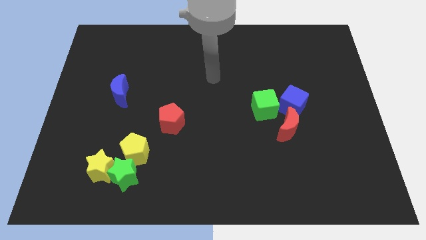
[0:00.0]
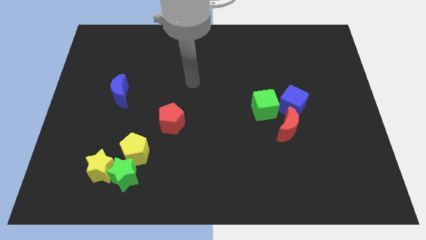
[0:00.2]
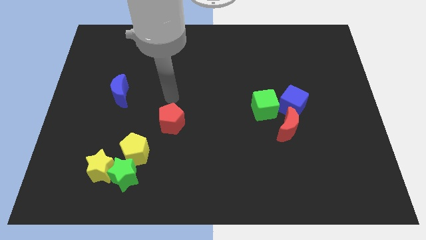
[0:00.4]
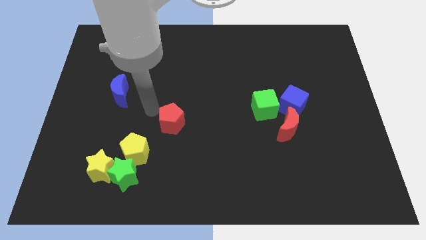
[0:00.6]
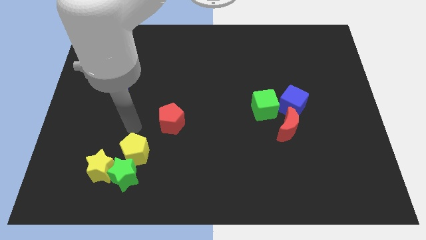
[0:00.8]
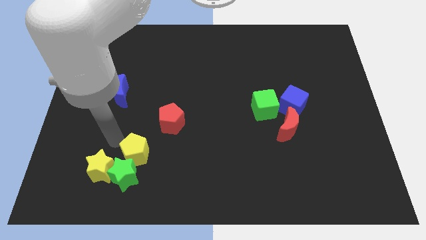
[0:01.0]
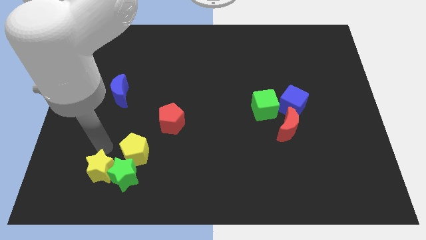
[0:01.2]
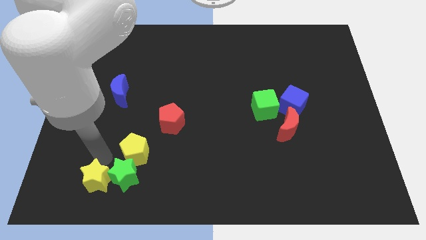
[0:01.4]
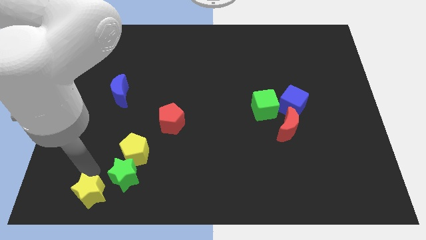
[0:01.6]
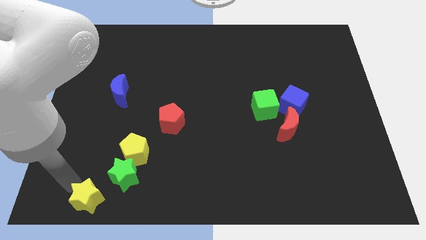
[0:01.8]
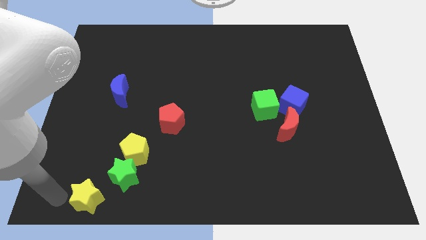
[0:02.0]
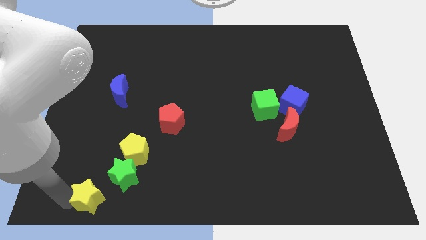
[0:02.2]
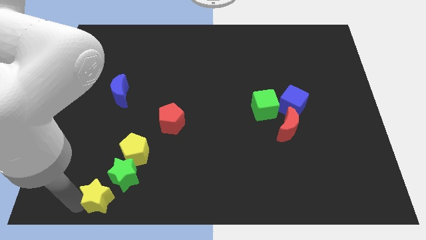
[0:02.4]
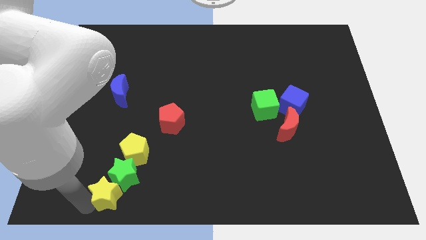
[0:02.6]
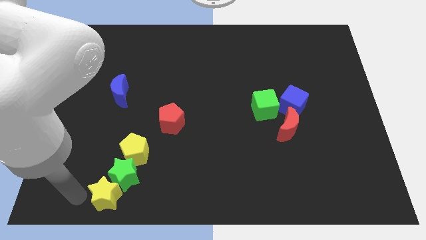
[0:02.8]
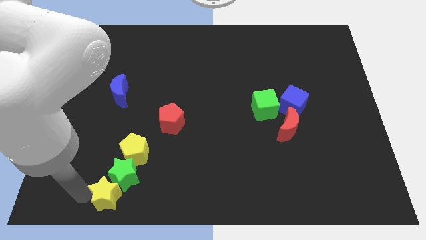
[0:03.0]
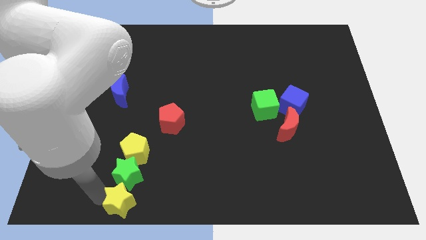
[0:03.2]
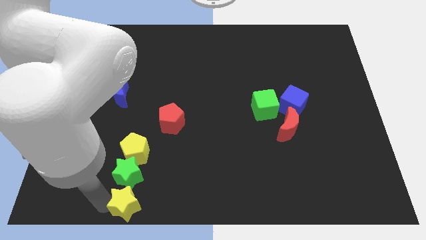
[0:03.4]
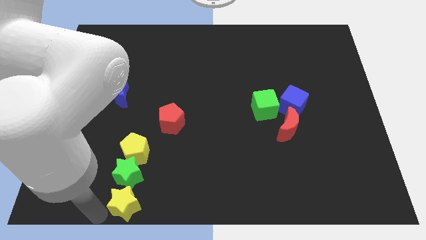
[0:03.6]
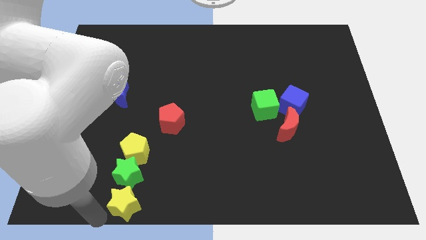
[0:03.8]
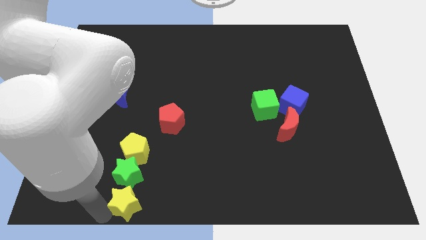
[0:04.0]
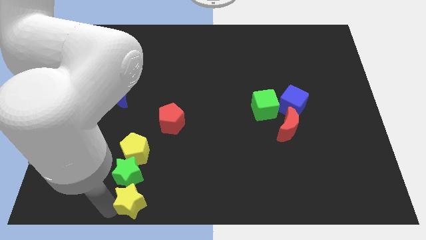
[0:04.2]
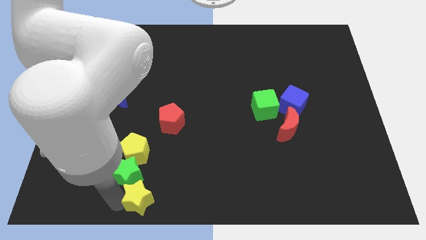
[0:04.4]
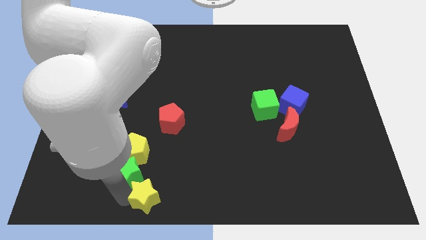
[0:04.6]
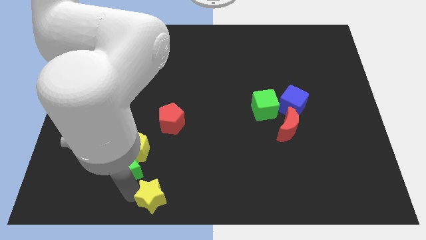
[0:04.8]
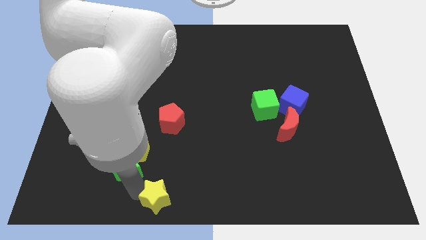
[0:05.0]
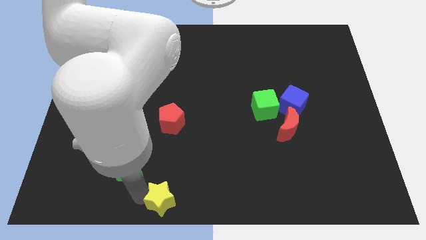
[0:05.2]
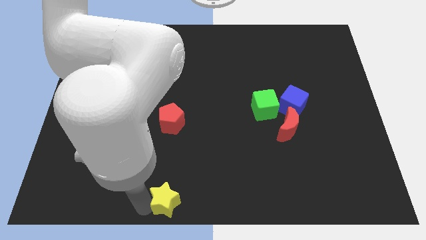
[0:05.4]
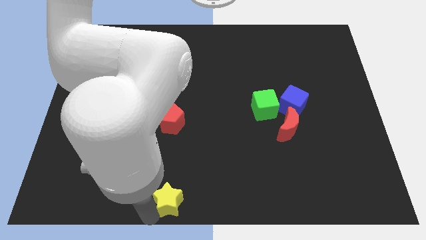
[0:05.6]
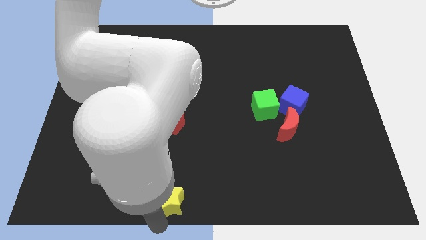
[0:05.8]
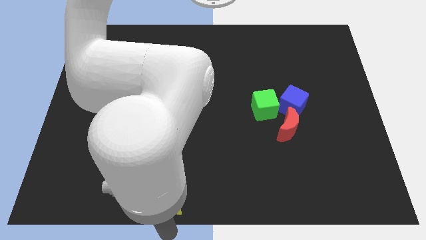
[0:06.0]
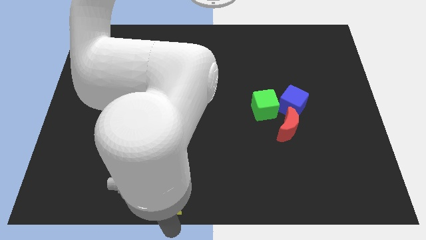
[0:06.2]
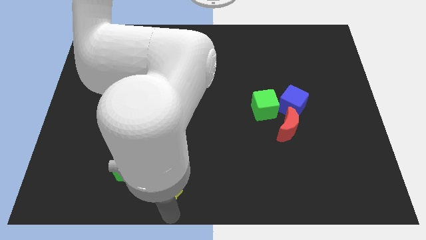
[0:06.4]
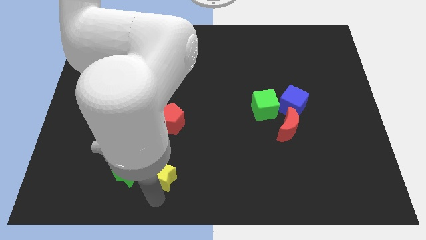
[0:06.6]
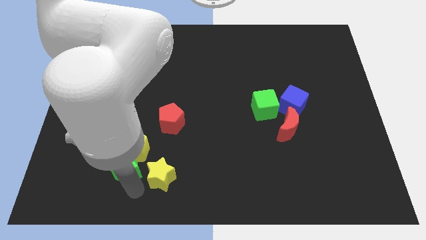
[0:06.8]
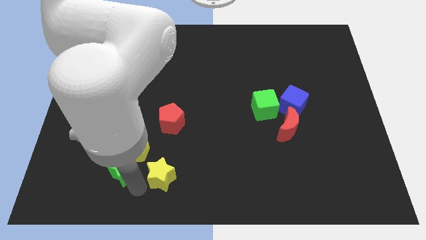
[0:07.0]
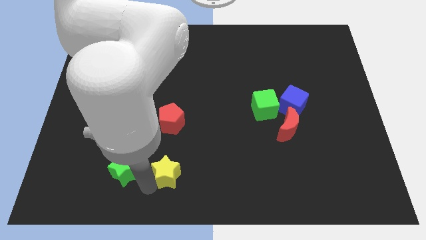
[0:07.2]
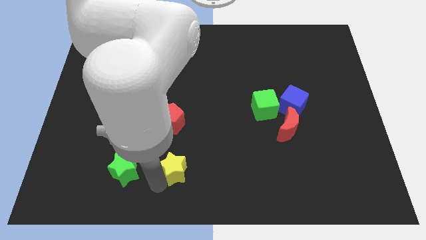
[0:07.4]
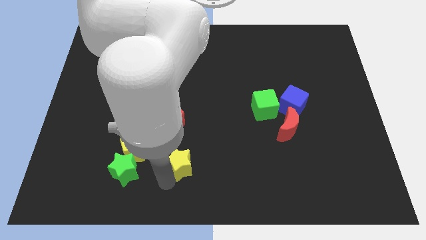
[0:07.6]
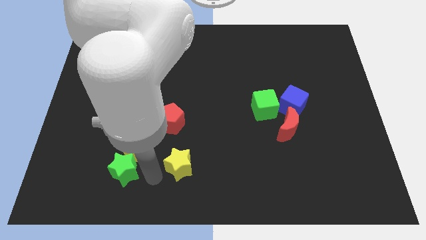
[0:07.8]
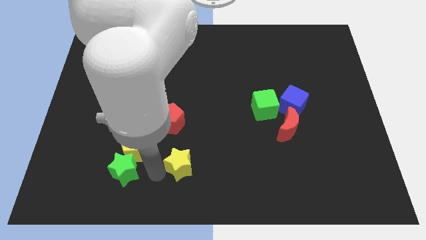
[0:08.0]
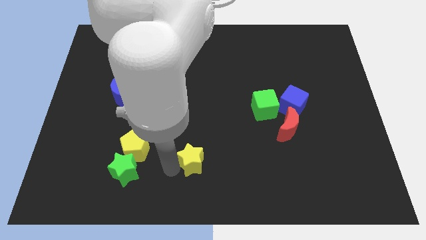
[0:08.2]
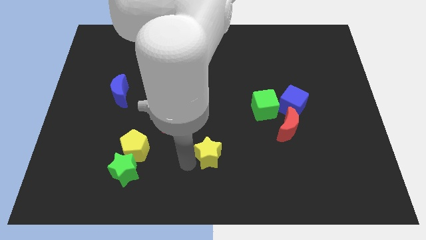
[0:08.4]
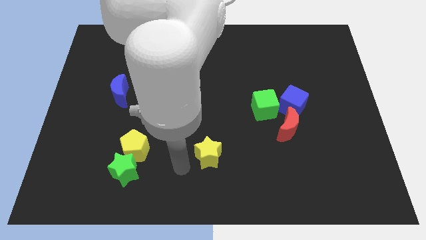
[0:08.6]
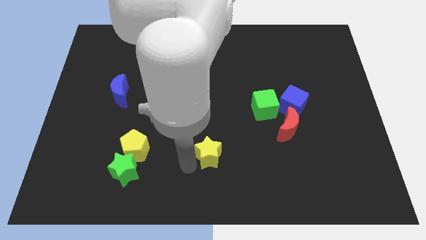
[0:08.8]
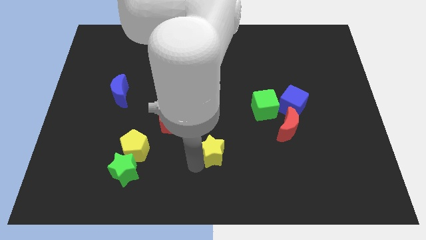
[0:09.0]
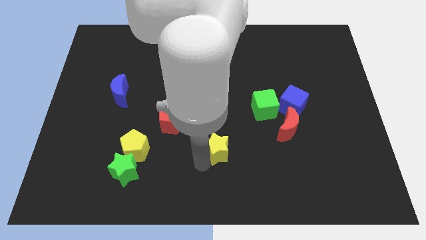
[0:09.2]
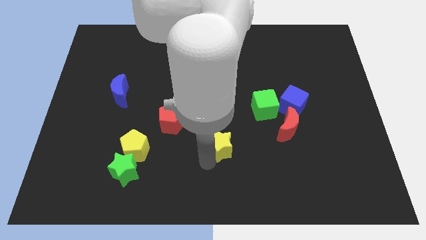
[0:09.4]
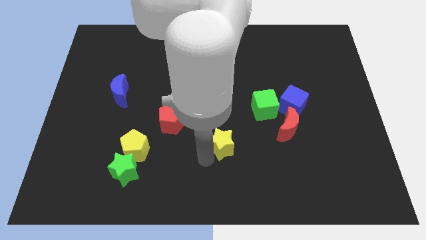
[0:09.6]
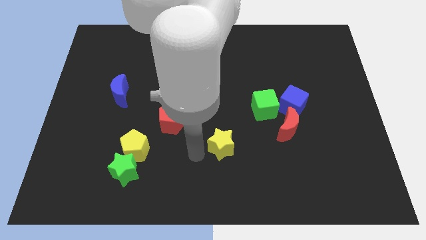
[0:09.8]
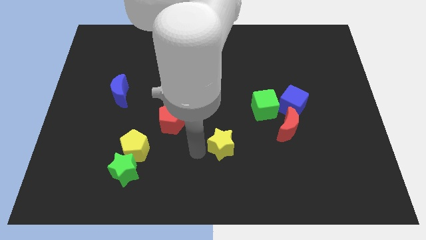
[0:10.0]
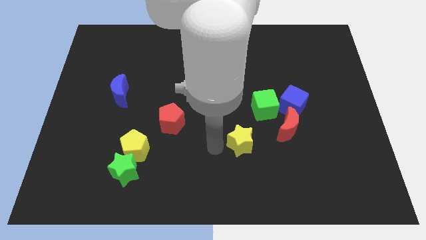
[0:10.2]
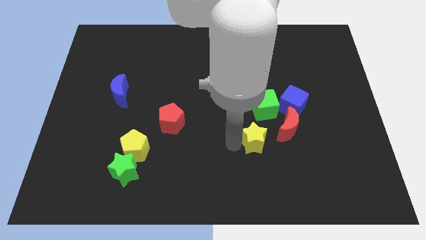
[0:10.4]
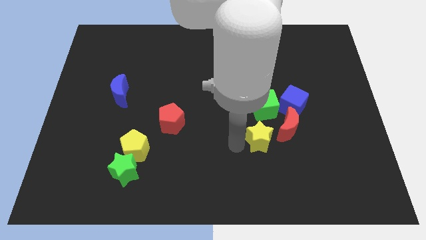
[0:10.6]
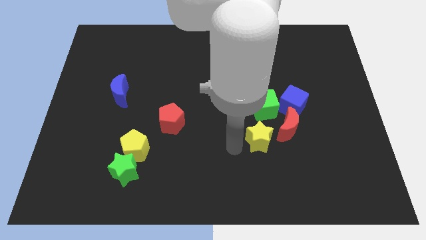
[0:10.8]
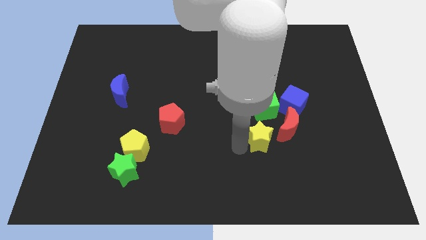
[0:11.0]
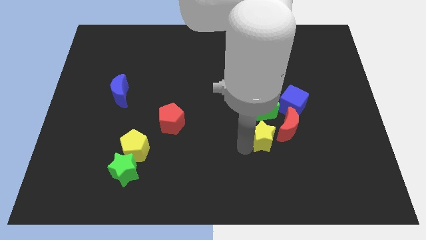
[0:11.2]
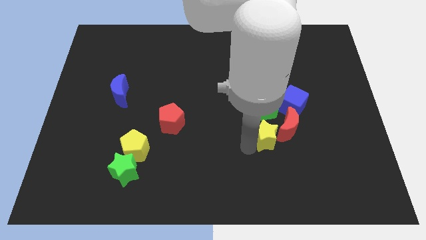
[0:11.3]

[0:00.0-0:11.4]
move the yellow star towards the red moon

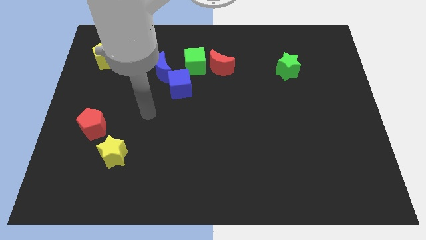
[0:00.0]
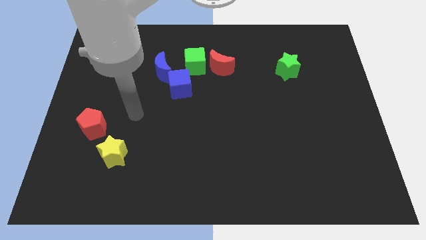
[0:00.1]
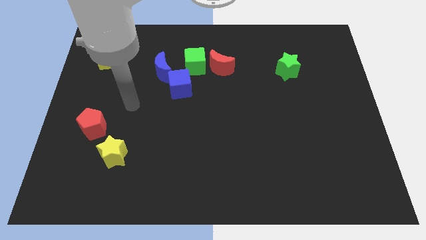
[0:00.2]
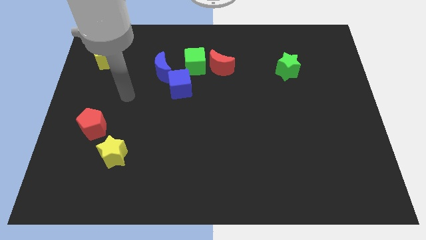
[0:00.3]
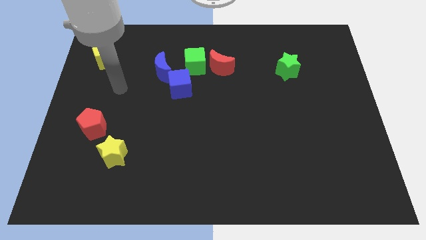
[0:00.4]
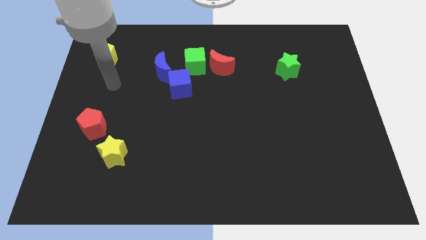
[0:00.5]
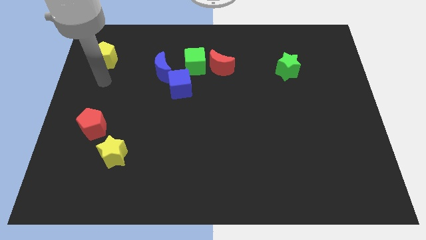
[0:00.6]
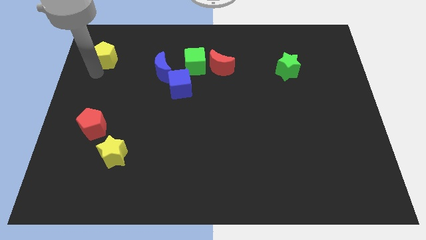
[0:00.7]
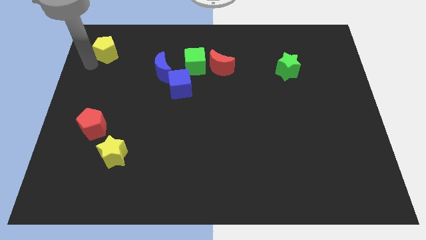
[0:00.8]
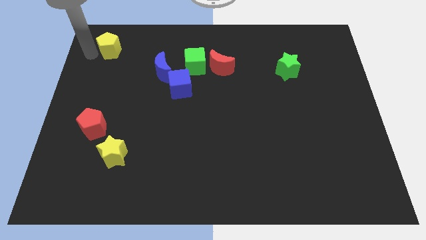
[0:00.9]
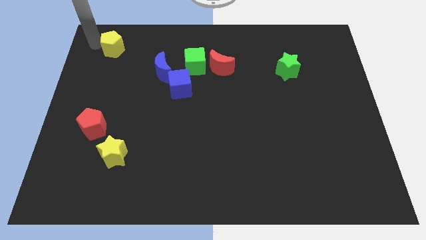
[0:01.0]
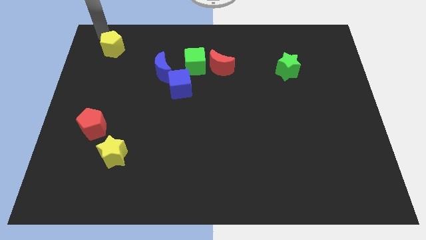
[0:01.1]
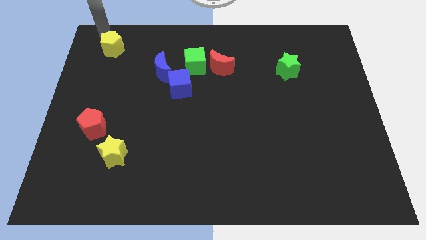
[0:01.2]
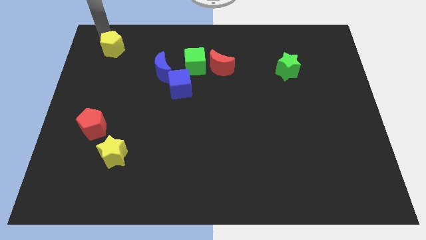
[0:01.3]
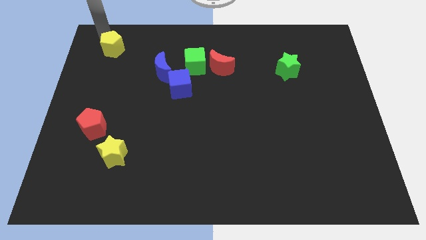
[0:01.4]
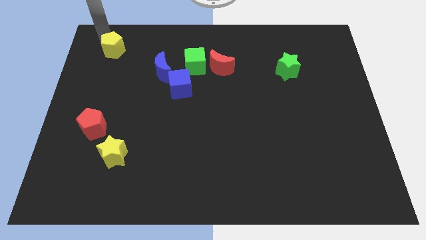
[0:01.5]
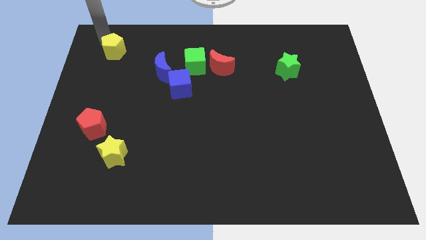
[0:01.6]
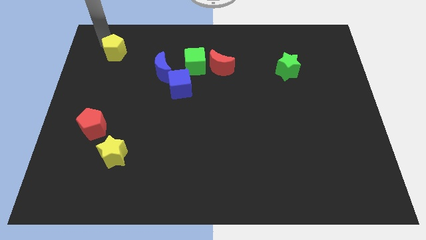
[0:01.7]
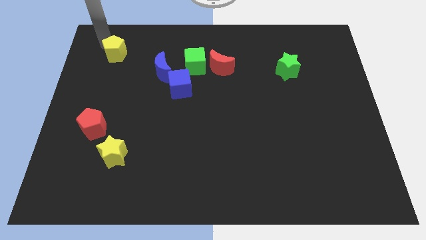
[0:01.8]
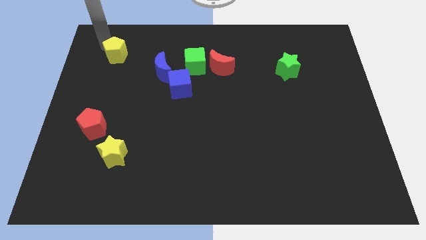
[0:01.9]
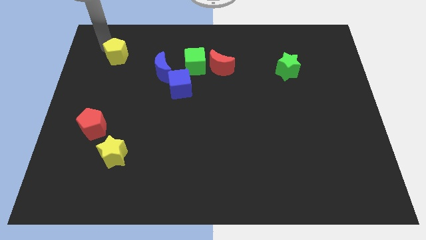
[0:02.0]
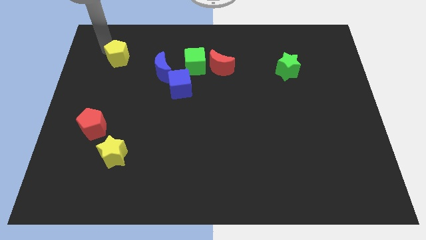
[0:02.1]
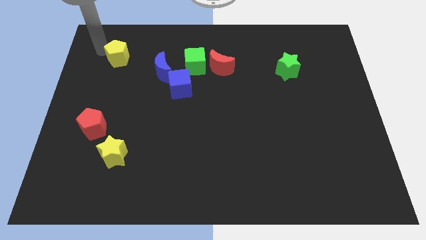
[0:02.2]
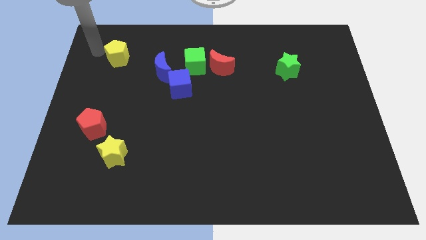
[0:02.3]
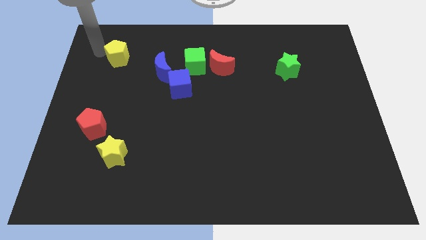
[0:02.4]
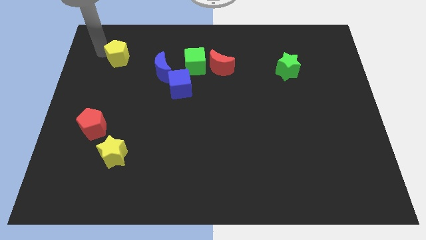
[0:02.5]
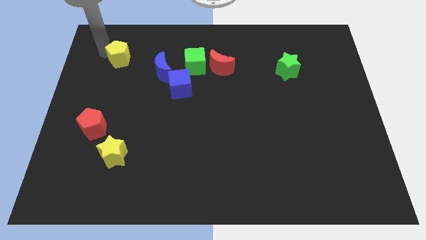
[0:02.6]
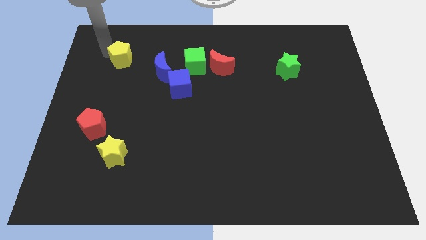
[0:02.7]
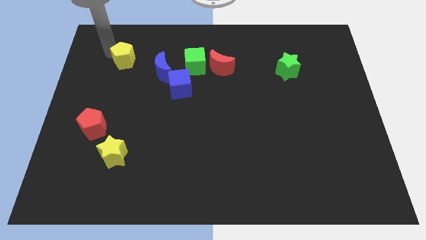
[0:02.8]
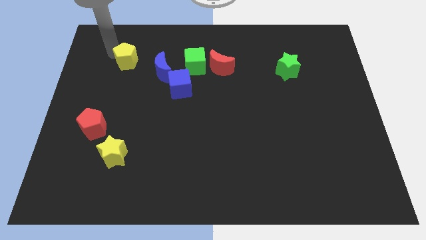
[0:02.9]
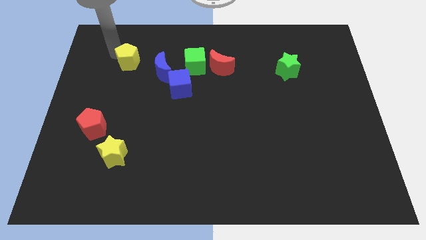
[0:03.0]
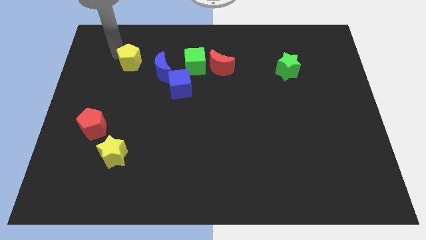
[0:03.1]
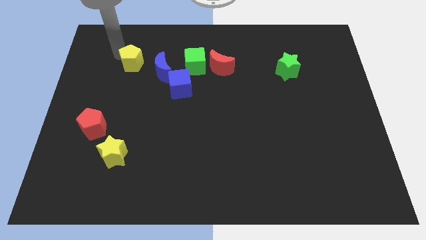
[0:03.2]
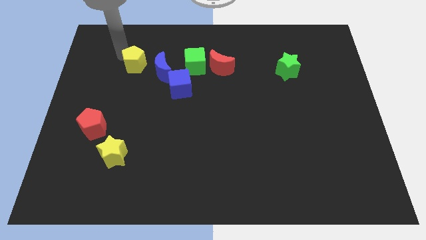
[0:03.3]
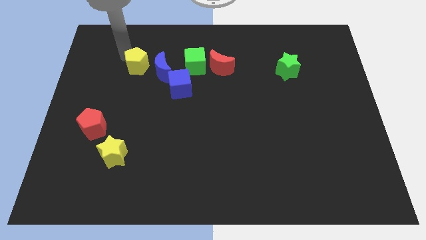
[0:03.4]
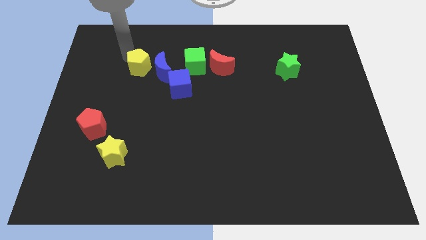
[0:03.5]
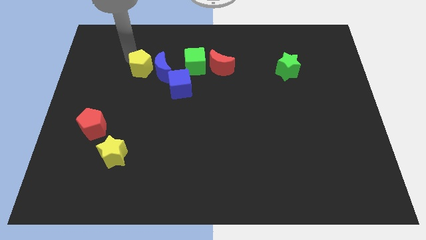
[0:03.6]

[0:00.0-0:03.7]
put the yellow pentagon next to the blue moon
